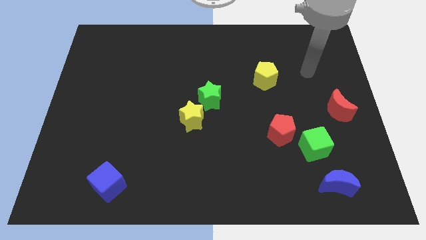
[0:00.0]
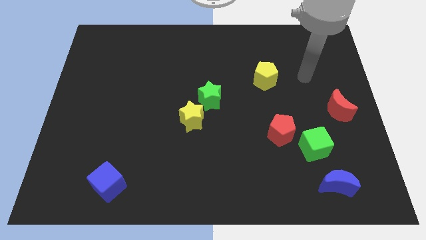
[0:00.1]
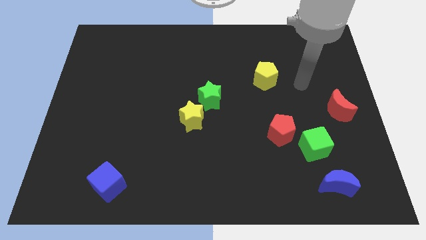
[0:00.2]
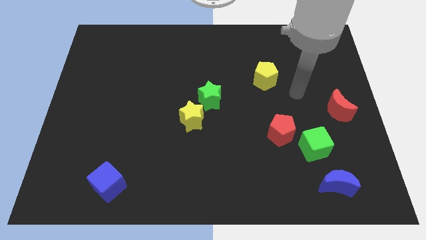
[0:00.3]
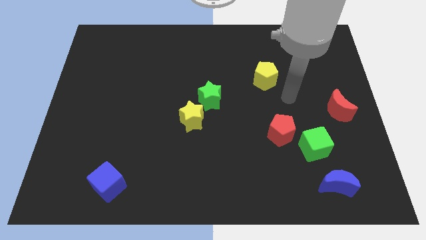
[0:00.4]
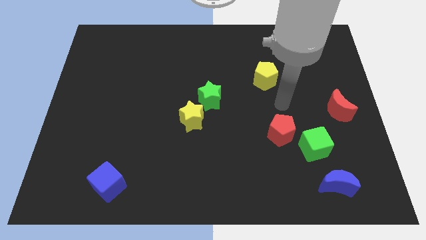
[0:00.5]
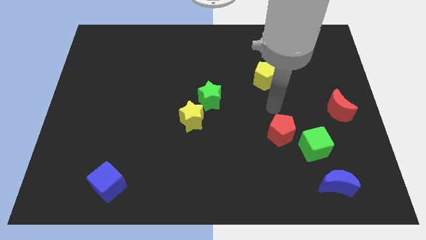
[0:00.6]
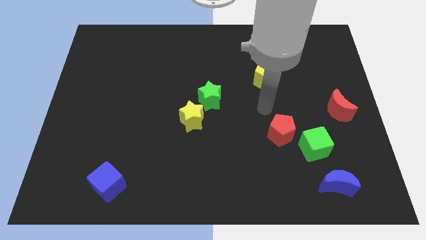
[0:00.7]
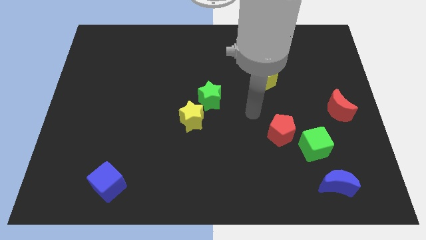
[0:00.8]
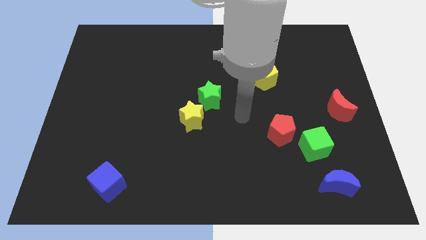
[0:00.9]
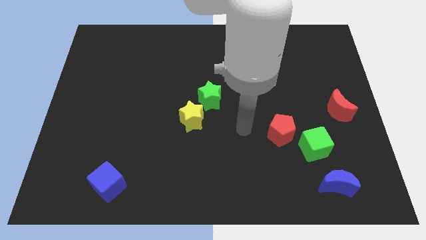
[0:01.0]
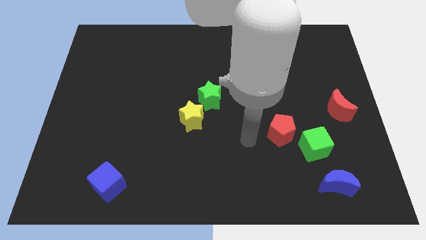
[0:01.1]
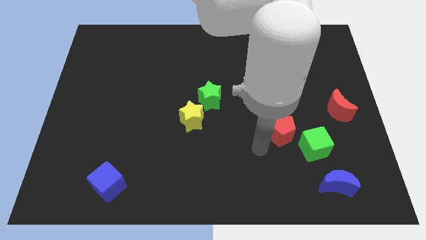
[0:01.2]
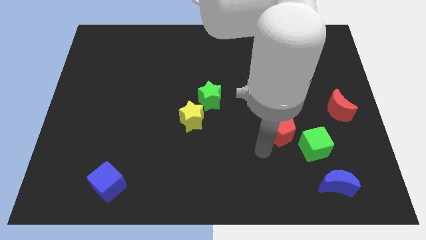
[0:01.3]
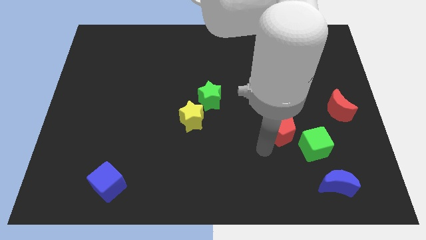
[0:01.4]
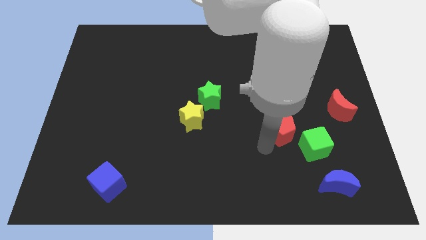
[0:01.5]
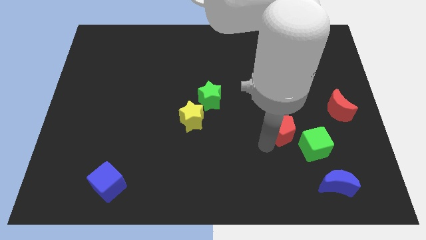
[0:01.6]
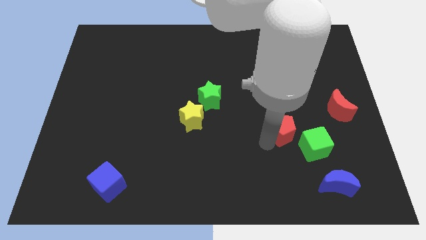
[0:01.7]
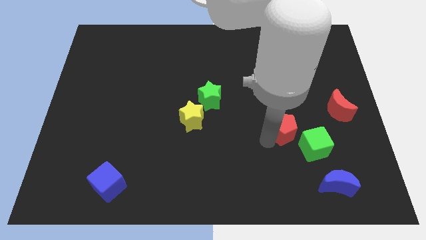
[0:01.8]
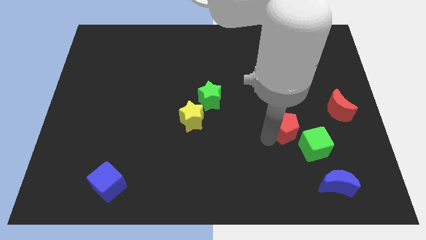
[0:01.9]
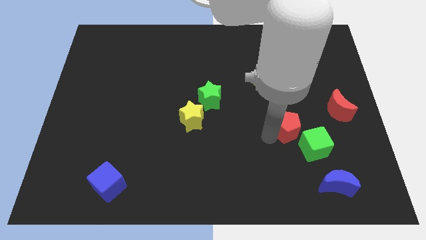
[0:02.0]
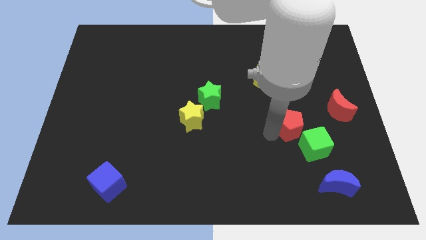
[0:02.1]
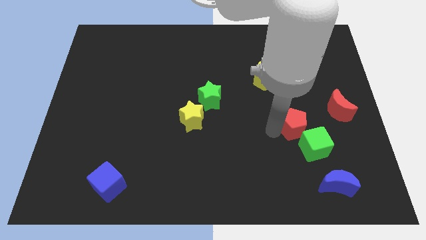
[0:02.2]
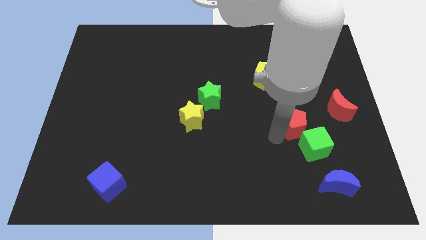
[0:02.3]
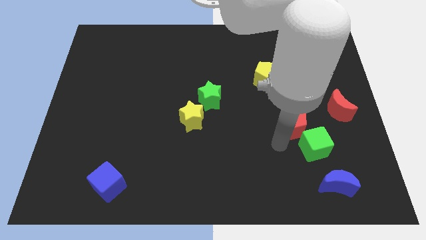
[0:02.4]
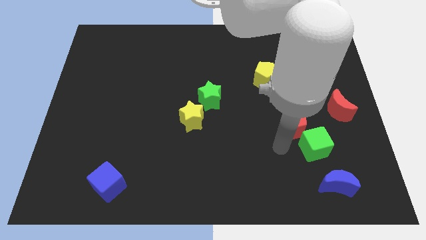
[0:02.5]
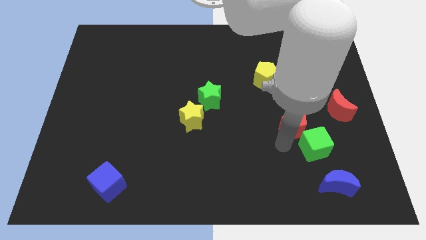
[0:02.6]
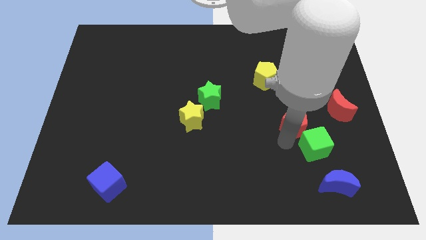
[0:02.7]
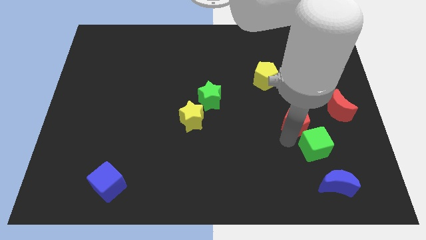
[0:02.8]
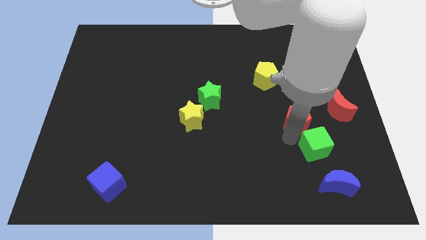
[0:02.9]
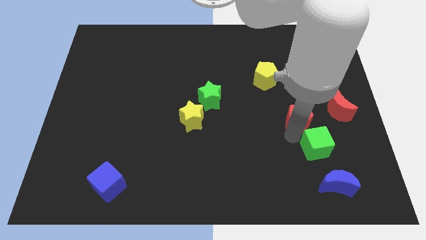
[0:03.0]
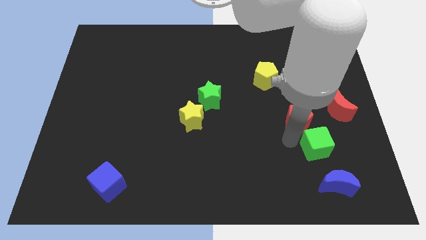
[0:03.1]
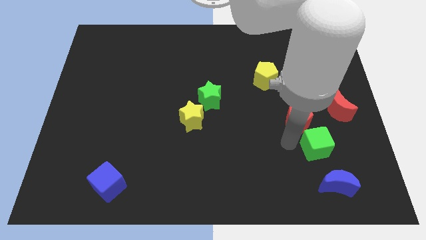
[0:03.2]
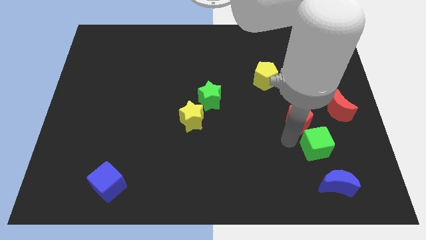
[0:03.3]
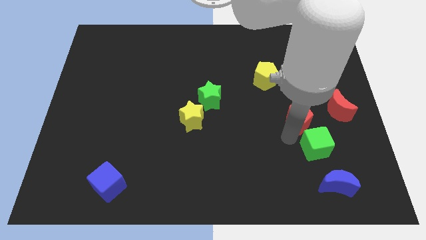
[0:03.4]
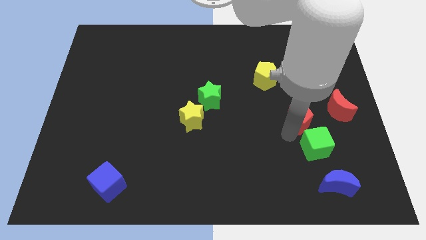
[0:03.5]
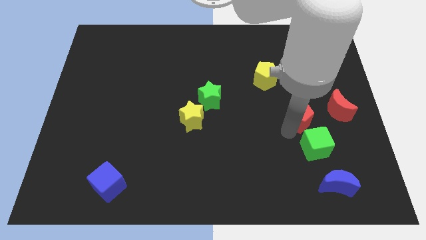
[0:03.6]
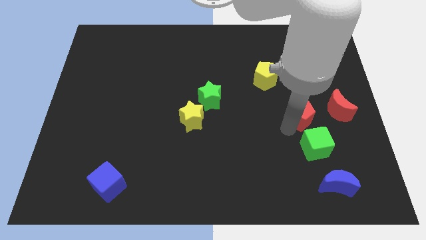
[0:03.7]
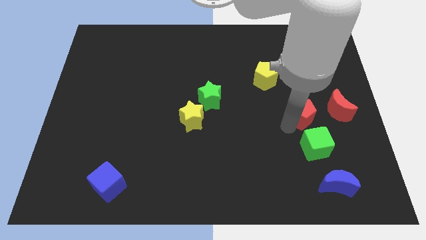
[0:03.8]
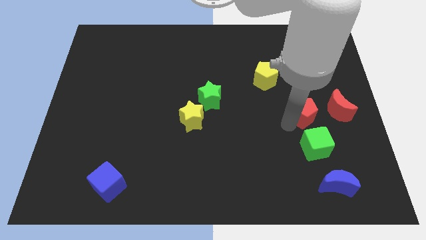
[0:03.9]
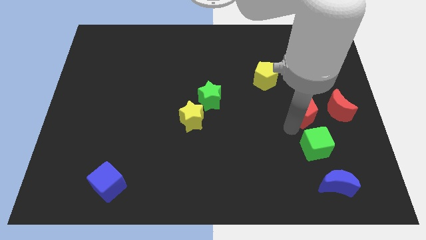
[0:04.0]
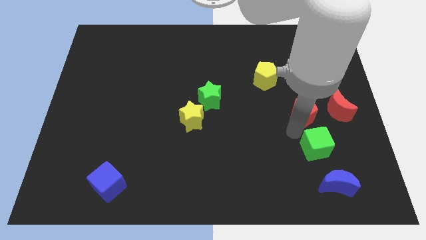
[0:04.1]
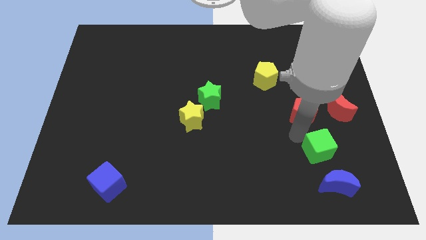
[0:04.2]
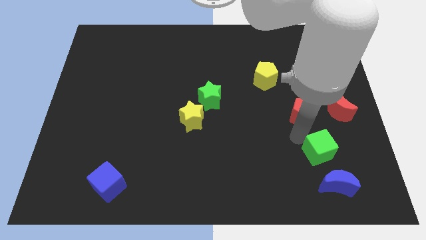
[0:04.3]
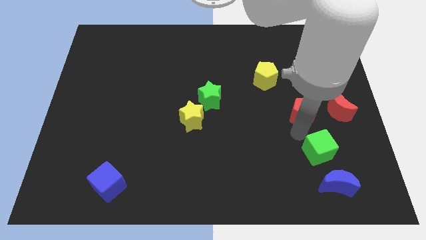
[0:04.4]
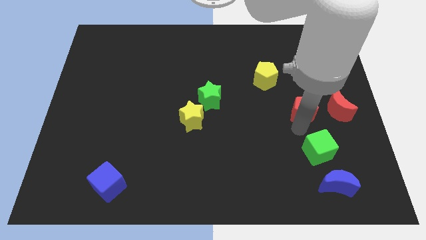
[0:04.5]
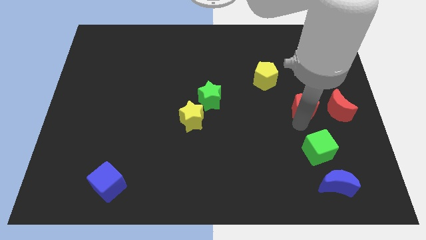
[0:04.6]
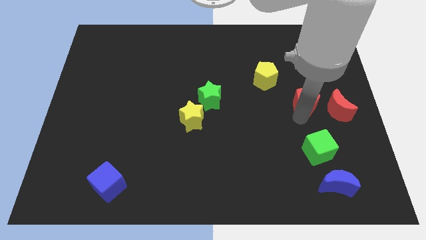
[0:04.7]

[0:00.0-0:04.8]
put the red pentagon diagonally up and to the left of the red moon

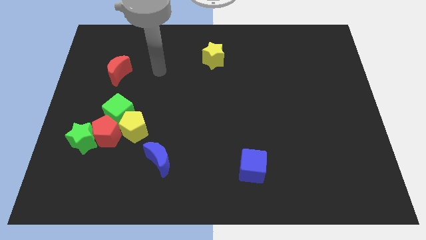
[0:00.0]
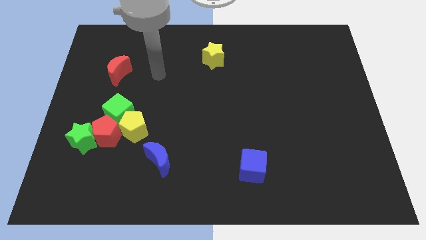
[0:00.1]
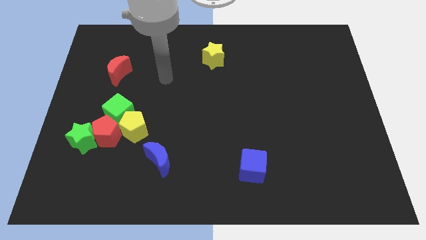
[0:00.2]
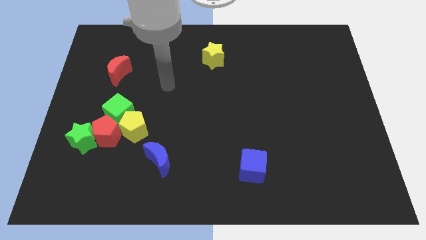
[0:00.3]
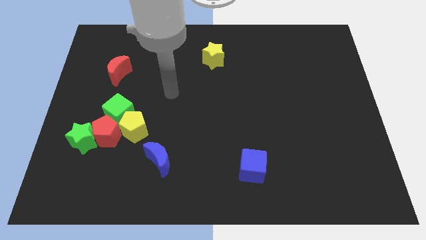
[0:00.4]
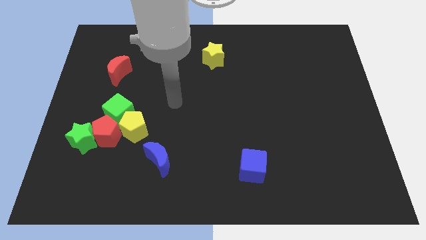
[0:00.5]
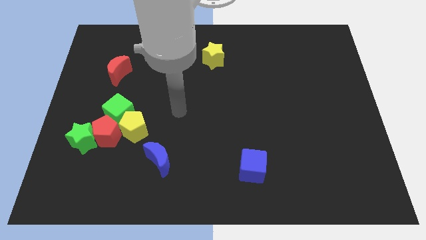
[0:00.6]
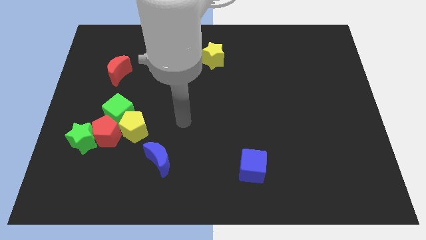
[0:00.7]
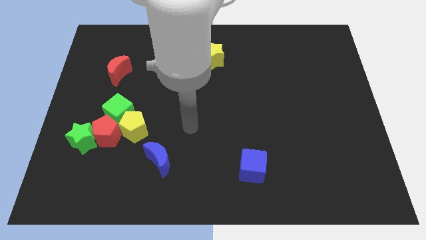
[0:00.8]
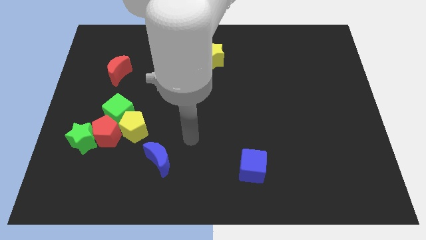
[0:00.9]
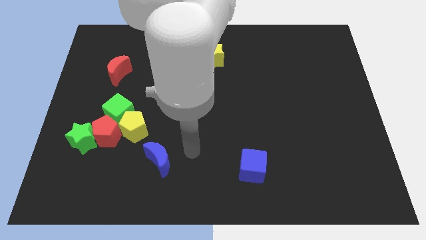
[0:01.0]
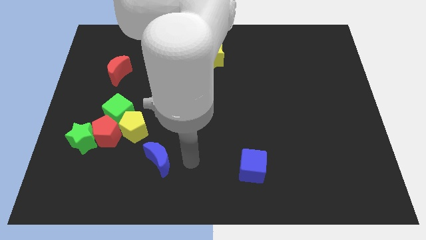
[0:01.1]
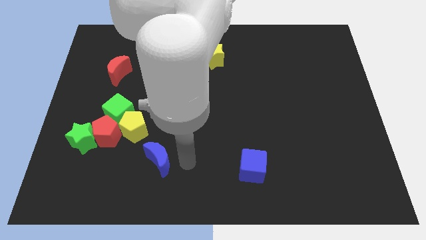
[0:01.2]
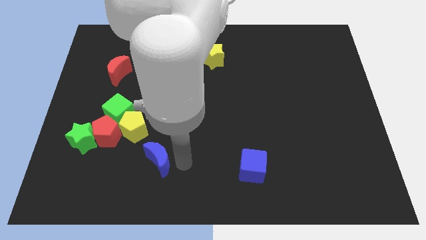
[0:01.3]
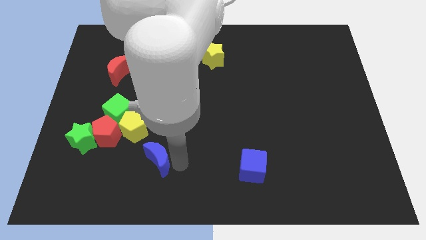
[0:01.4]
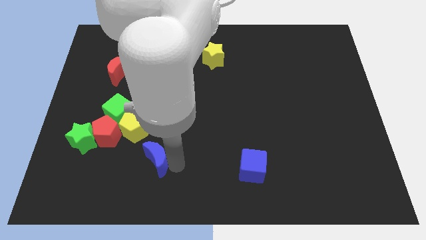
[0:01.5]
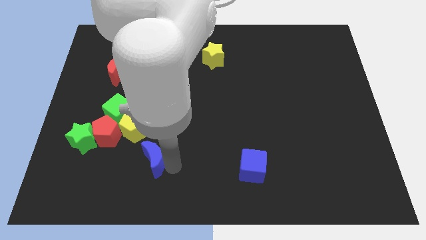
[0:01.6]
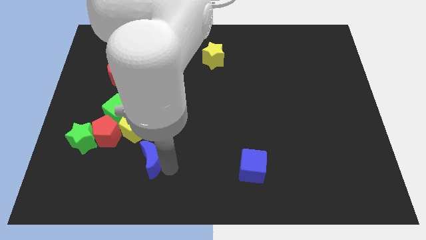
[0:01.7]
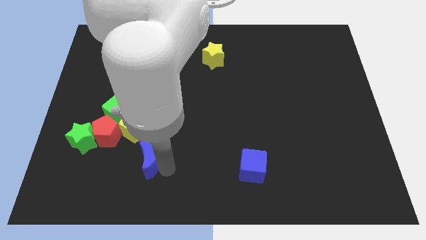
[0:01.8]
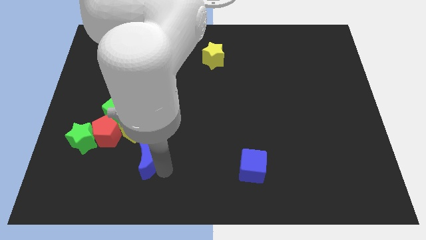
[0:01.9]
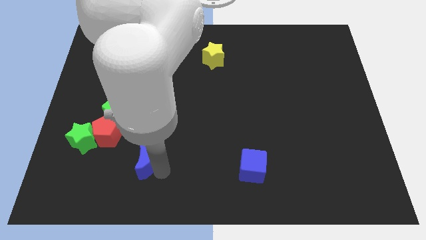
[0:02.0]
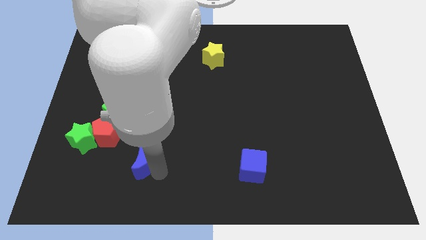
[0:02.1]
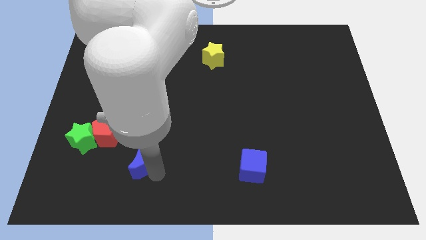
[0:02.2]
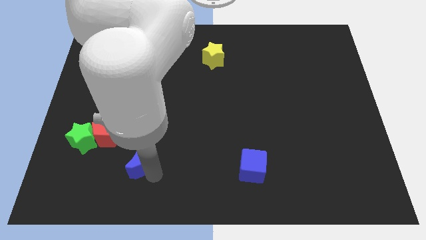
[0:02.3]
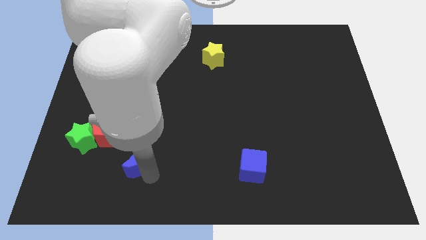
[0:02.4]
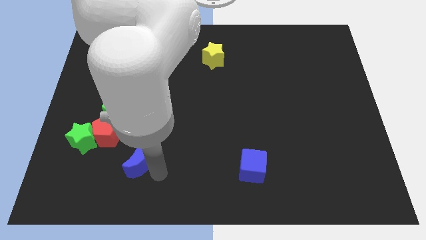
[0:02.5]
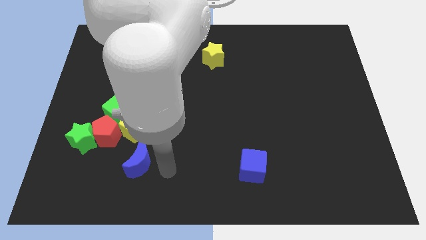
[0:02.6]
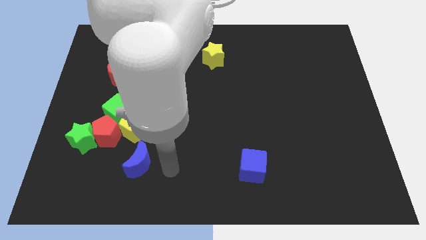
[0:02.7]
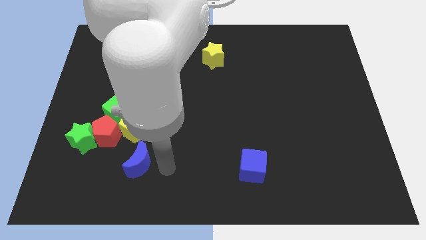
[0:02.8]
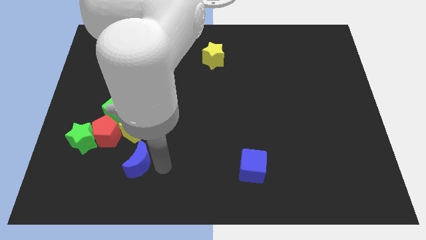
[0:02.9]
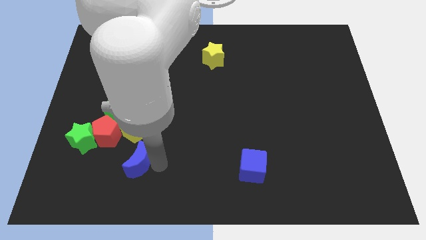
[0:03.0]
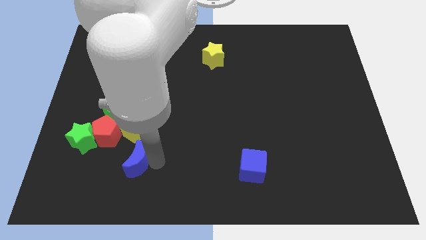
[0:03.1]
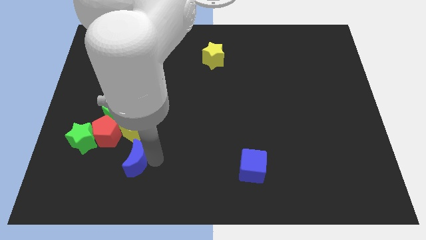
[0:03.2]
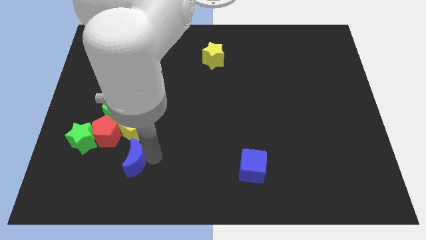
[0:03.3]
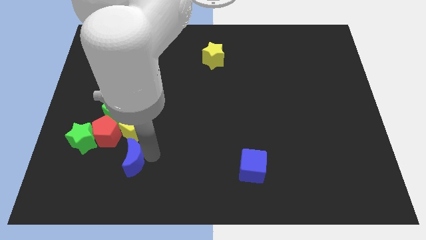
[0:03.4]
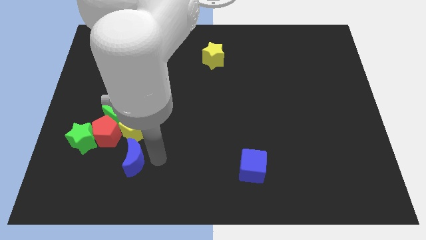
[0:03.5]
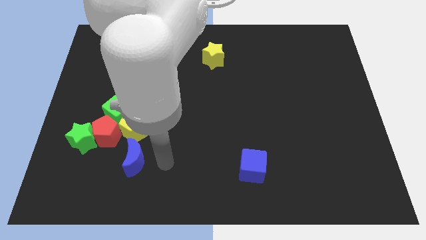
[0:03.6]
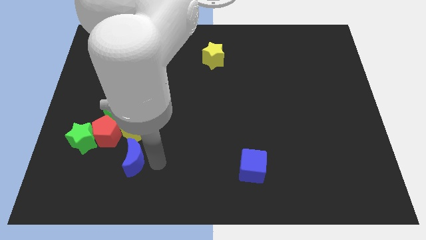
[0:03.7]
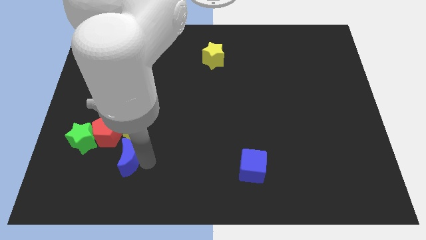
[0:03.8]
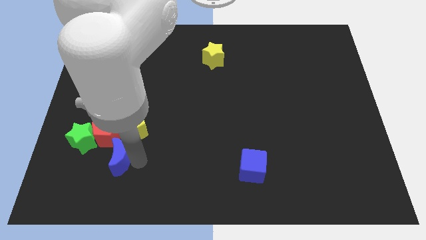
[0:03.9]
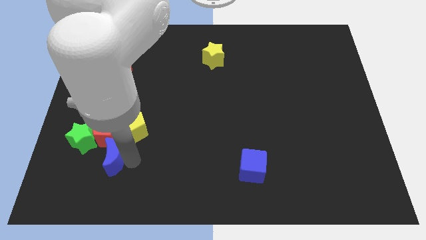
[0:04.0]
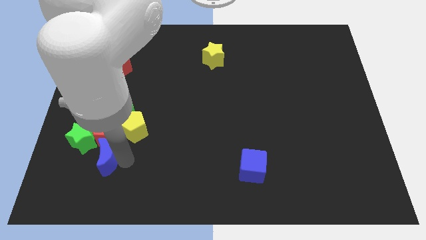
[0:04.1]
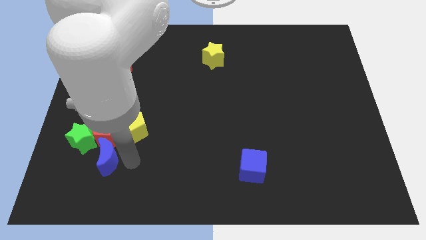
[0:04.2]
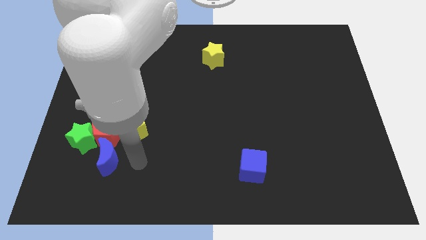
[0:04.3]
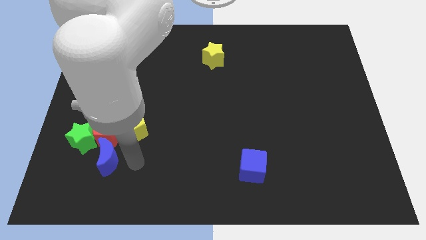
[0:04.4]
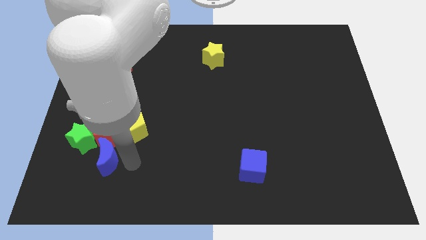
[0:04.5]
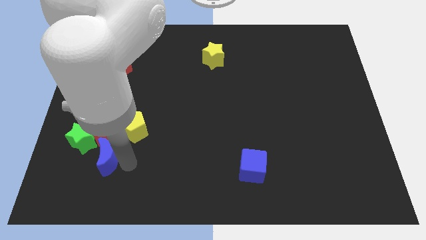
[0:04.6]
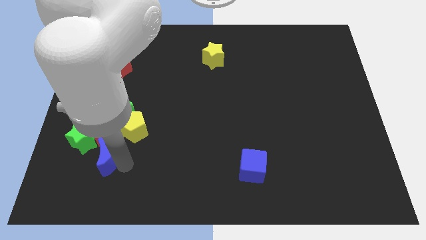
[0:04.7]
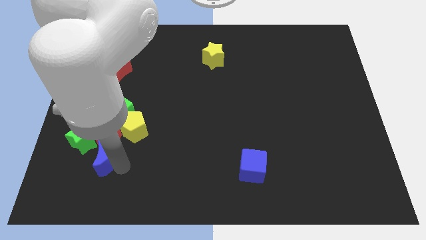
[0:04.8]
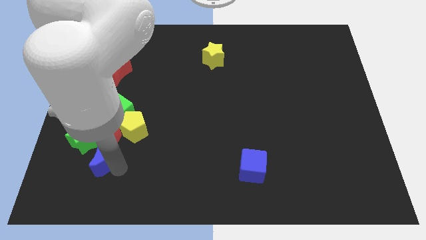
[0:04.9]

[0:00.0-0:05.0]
push the blue moon diagonally down and to the left of the red pentagon
